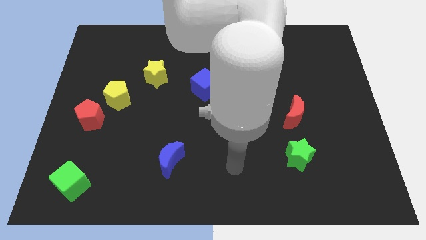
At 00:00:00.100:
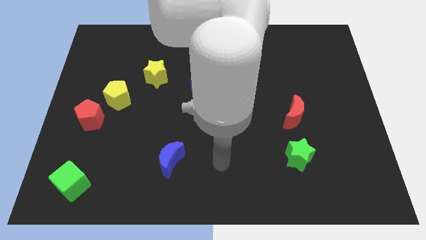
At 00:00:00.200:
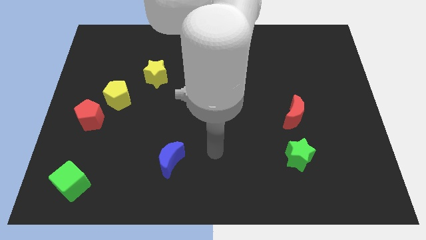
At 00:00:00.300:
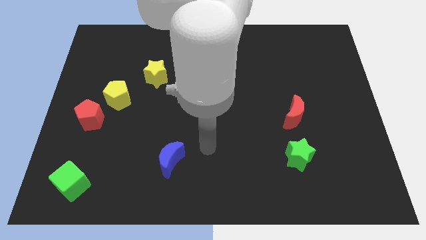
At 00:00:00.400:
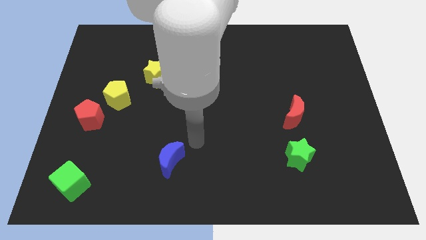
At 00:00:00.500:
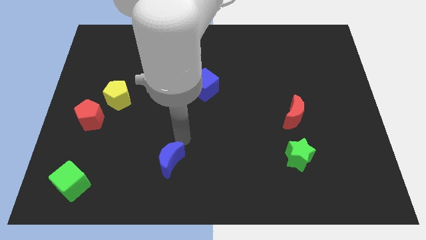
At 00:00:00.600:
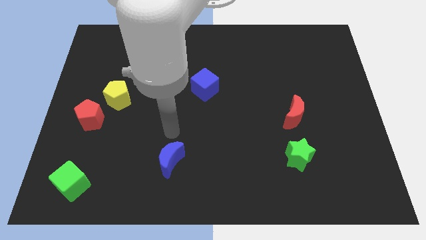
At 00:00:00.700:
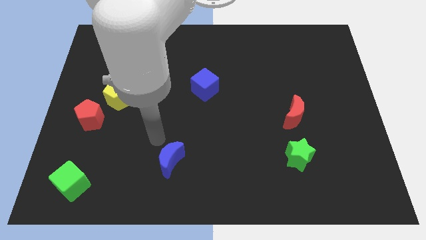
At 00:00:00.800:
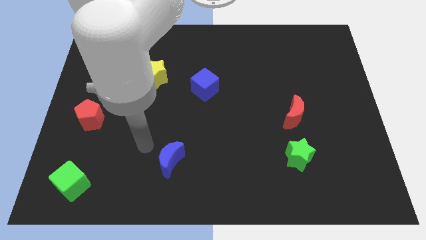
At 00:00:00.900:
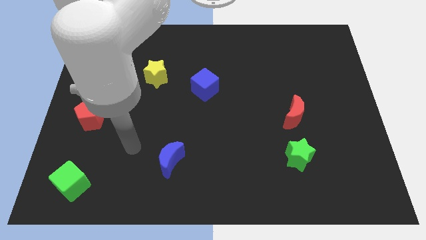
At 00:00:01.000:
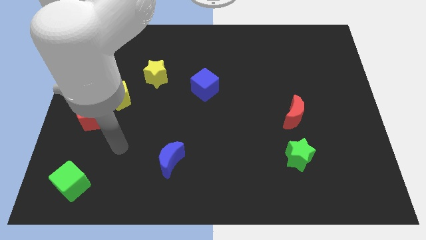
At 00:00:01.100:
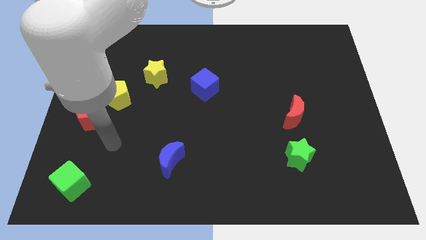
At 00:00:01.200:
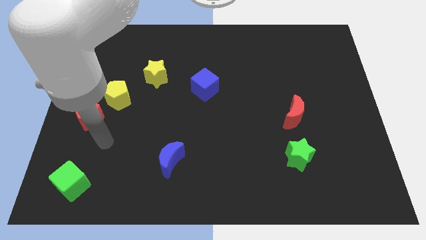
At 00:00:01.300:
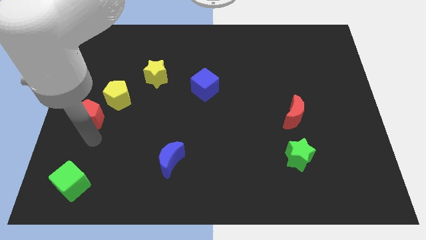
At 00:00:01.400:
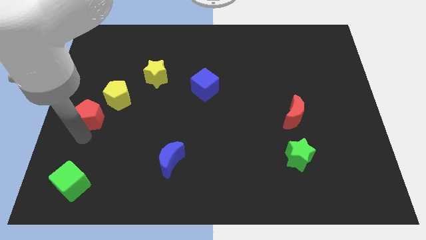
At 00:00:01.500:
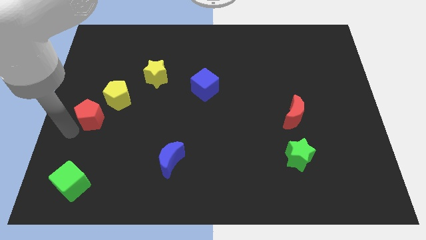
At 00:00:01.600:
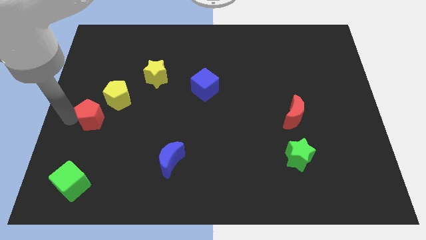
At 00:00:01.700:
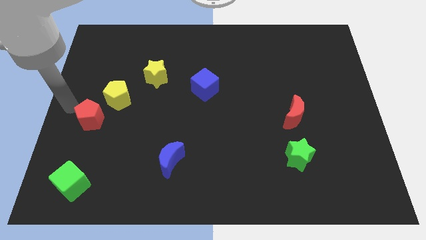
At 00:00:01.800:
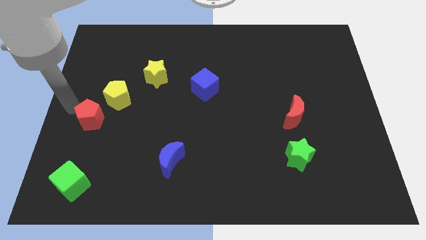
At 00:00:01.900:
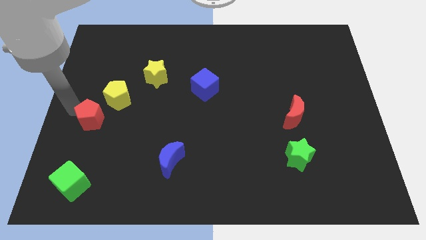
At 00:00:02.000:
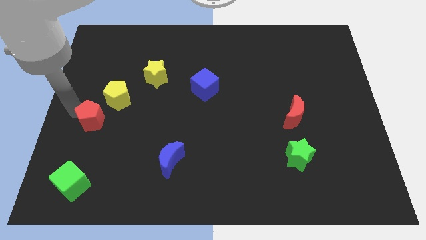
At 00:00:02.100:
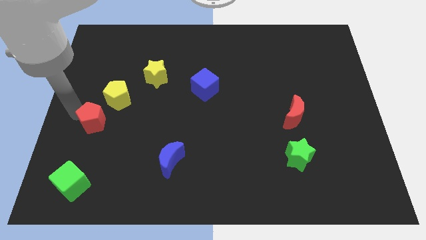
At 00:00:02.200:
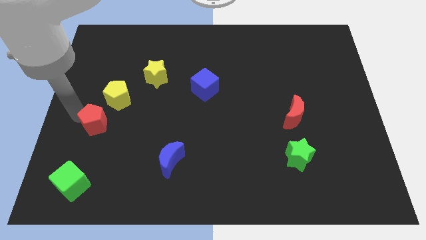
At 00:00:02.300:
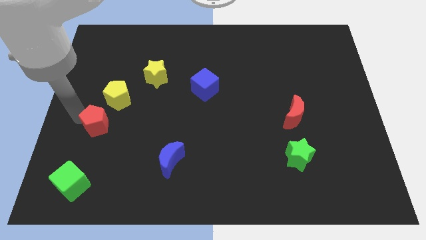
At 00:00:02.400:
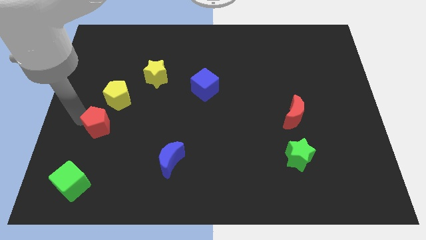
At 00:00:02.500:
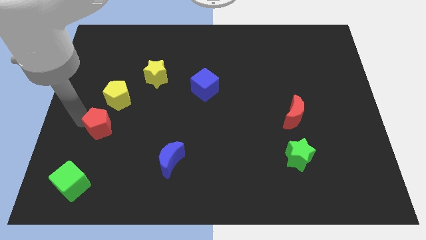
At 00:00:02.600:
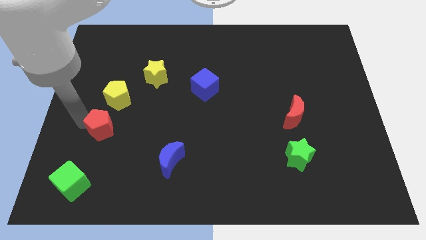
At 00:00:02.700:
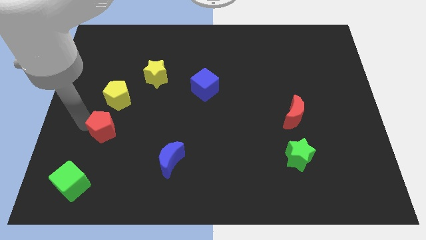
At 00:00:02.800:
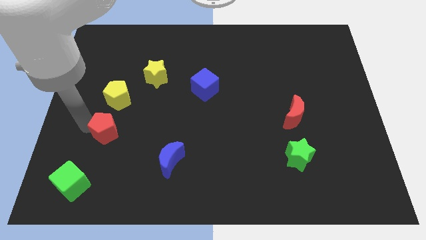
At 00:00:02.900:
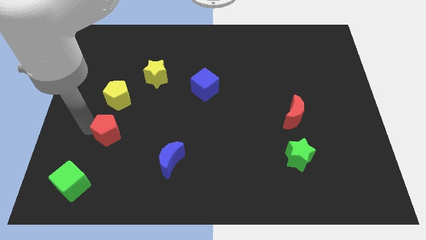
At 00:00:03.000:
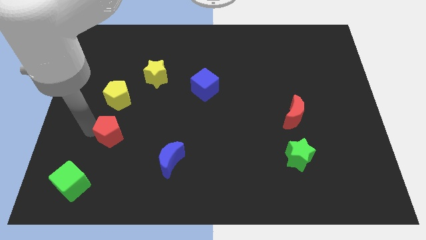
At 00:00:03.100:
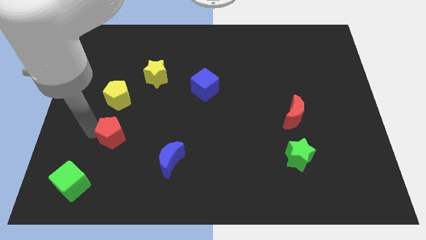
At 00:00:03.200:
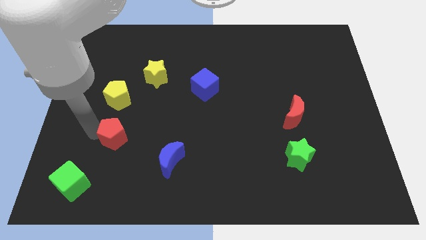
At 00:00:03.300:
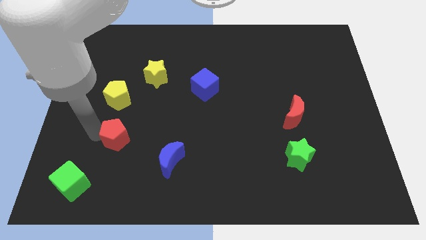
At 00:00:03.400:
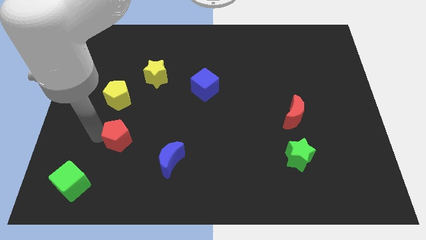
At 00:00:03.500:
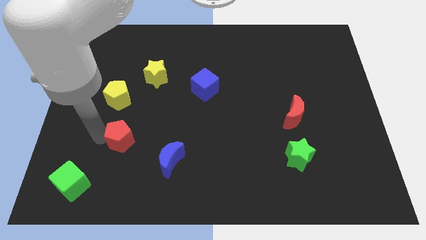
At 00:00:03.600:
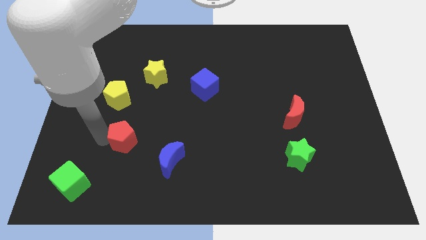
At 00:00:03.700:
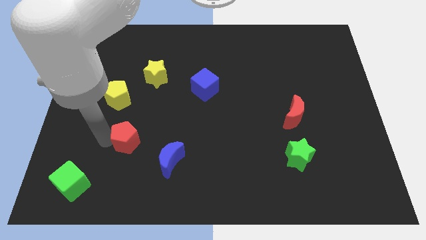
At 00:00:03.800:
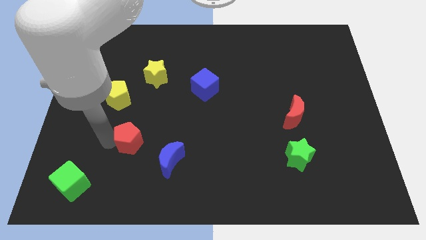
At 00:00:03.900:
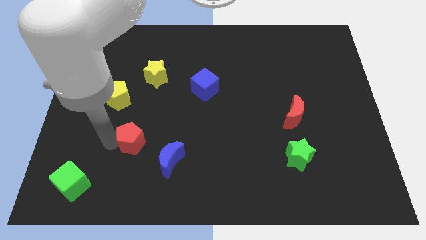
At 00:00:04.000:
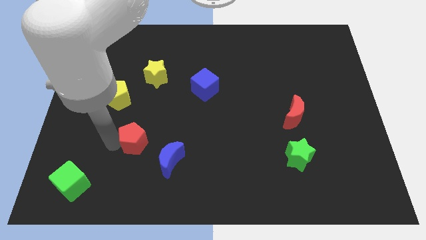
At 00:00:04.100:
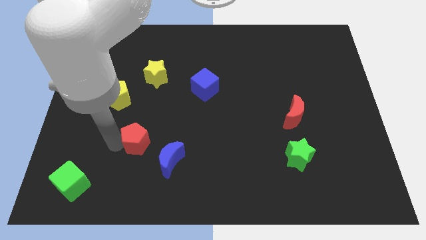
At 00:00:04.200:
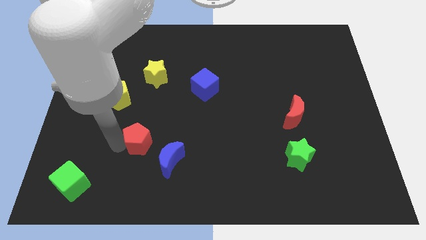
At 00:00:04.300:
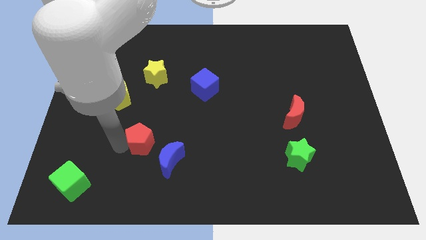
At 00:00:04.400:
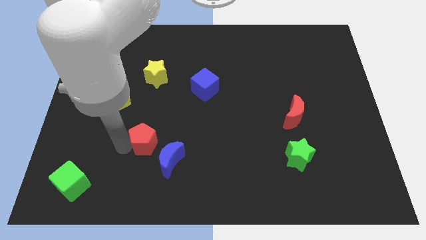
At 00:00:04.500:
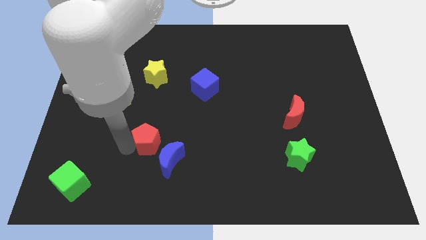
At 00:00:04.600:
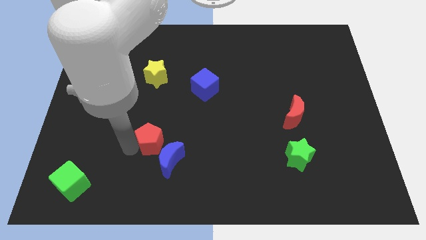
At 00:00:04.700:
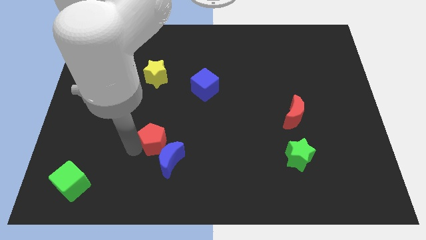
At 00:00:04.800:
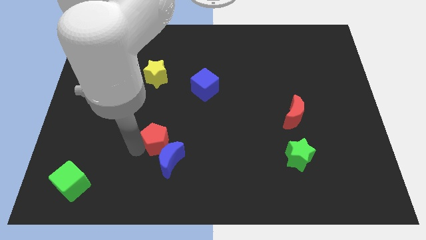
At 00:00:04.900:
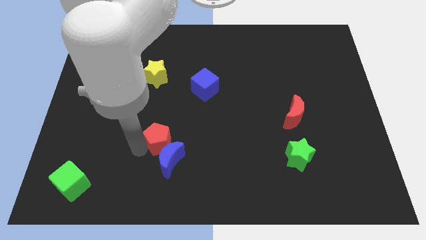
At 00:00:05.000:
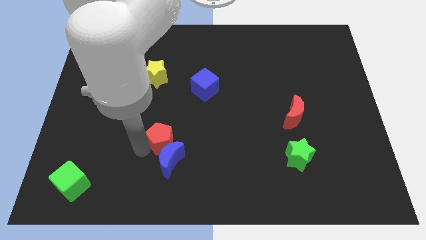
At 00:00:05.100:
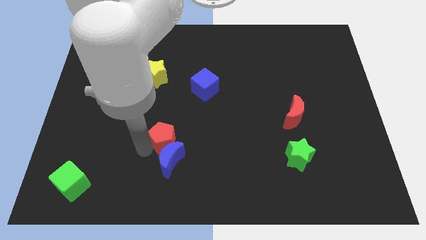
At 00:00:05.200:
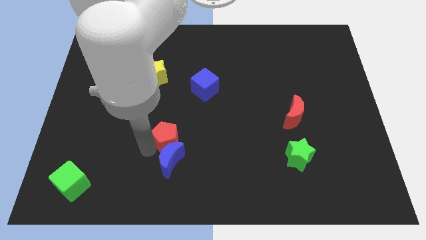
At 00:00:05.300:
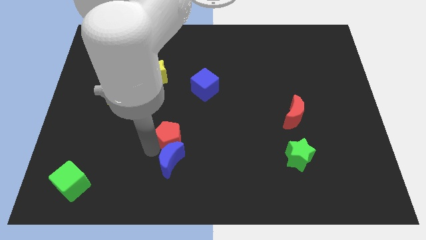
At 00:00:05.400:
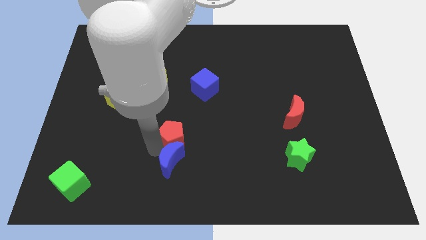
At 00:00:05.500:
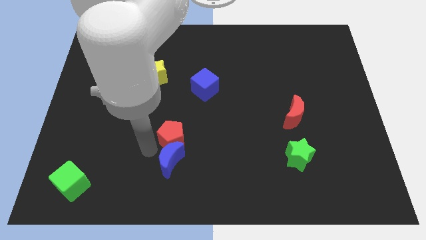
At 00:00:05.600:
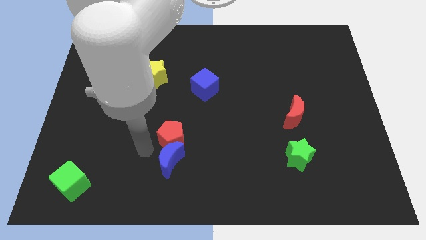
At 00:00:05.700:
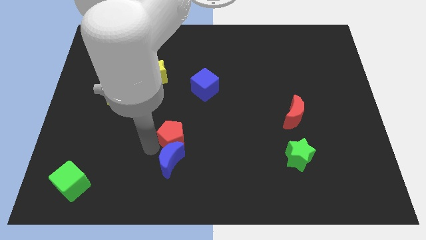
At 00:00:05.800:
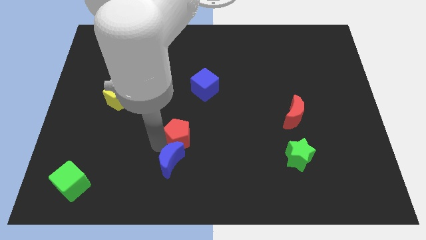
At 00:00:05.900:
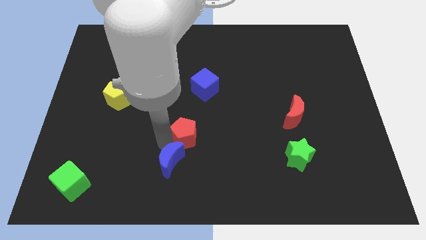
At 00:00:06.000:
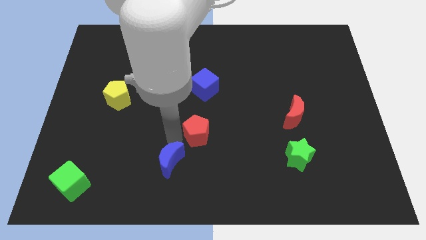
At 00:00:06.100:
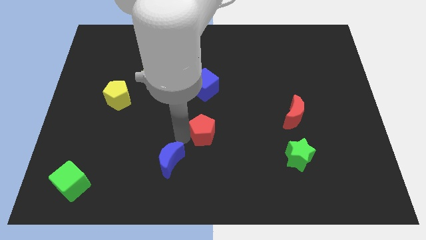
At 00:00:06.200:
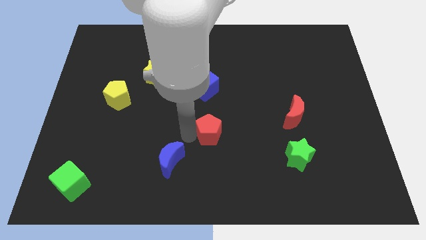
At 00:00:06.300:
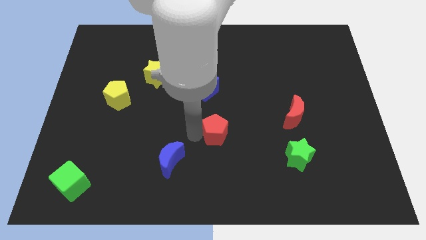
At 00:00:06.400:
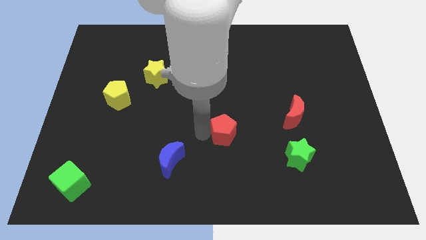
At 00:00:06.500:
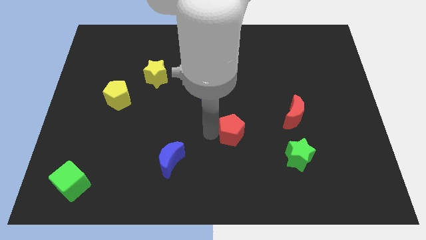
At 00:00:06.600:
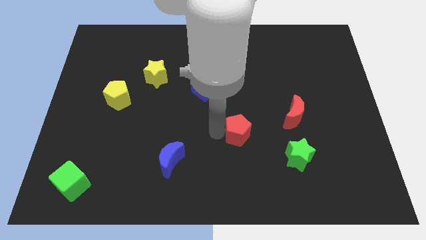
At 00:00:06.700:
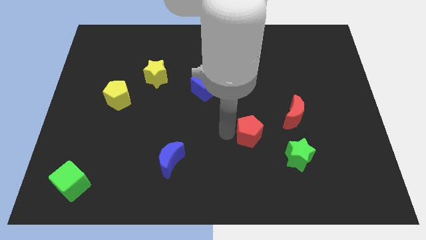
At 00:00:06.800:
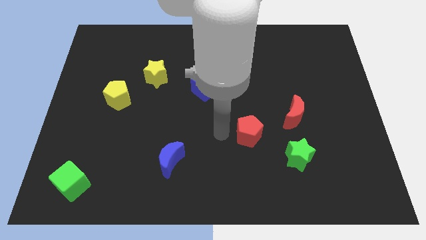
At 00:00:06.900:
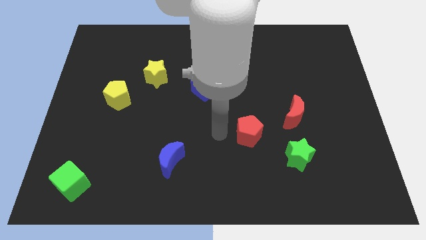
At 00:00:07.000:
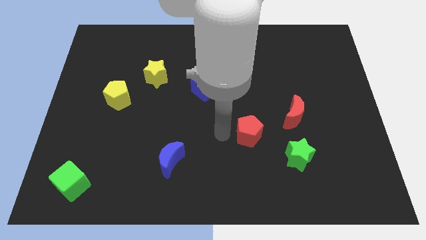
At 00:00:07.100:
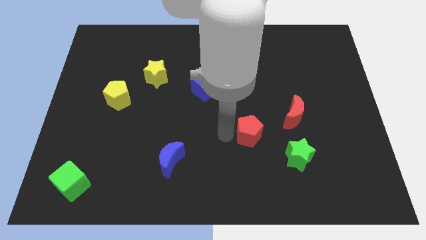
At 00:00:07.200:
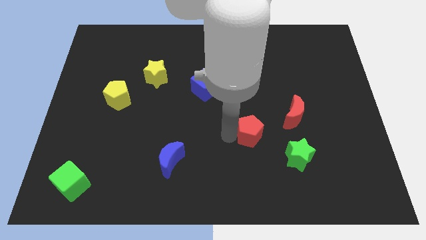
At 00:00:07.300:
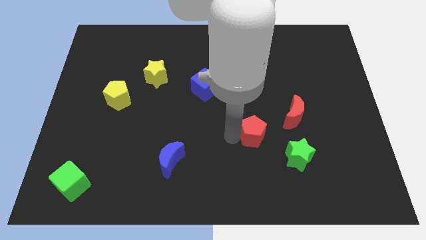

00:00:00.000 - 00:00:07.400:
put the red pentagon diagonally down and to the left of the red moon
